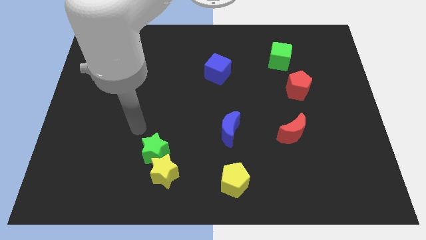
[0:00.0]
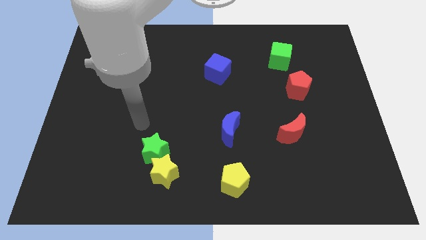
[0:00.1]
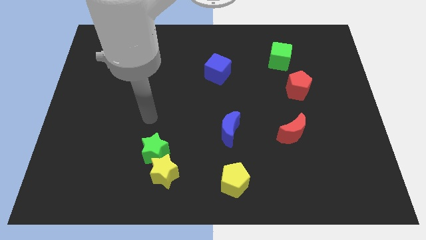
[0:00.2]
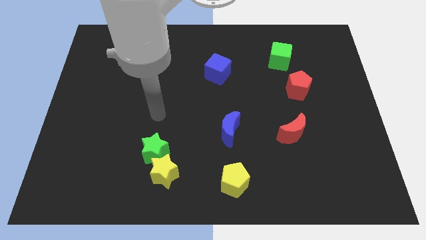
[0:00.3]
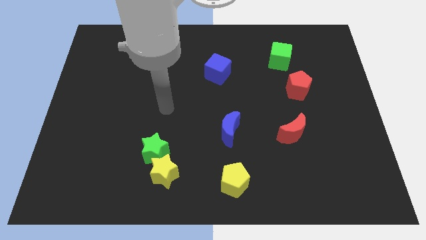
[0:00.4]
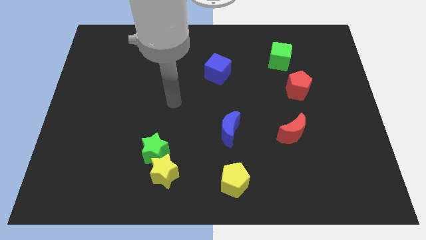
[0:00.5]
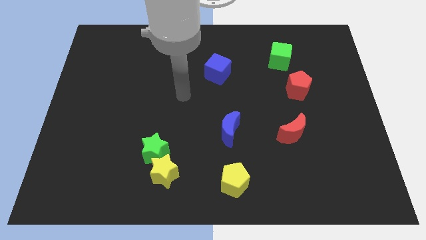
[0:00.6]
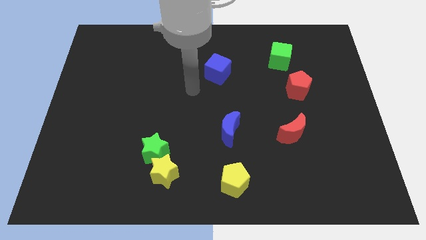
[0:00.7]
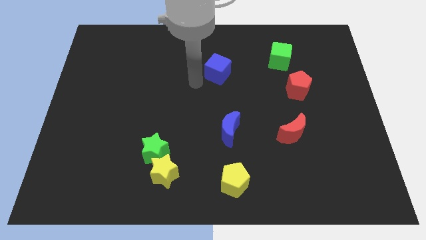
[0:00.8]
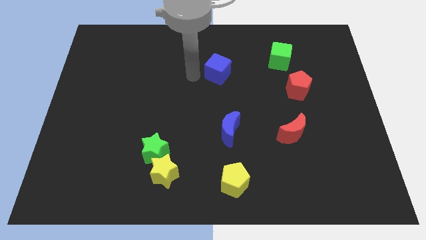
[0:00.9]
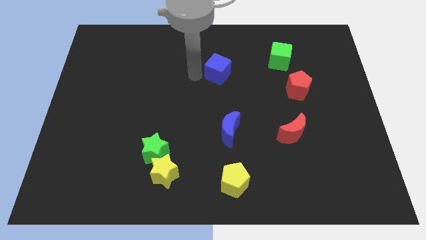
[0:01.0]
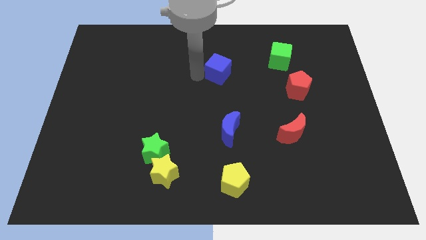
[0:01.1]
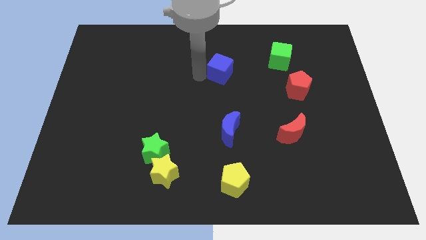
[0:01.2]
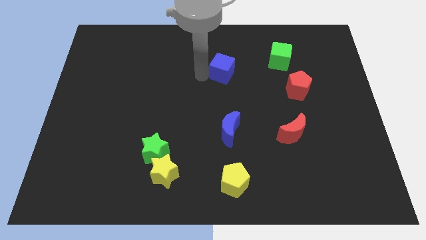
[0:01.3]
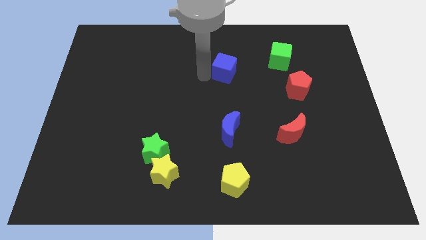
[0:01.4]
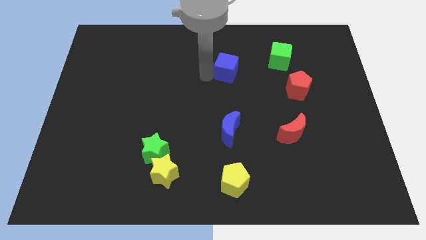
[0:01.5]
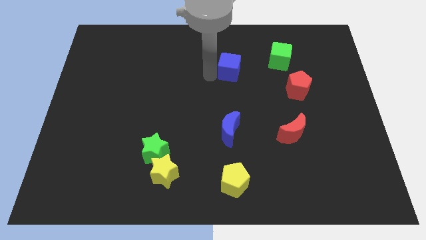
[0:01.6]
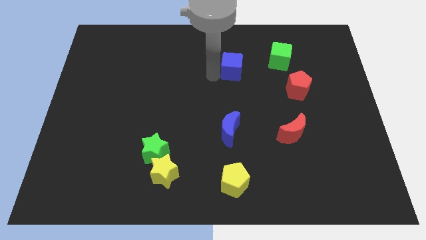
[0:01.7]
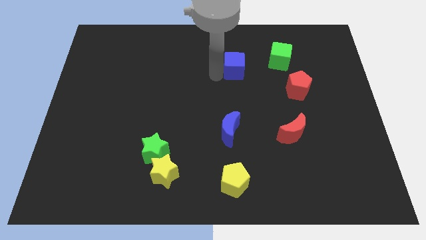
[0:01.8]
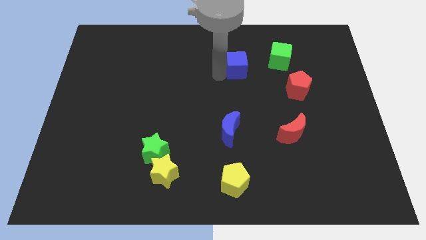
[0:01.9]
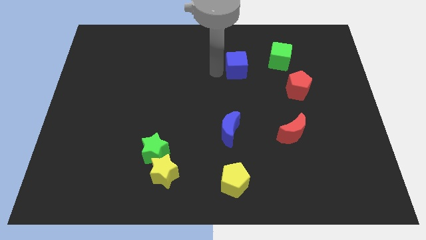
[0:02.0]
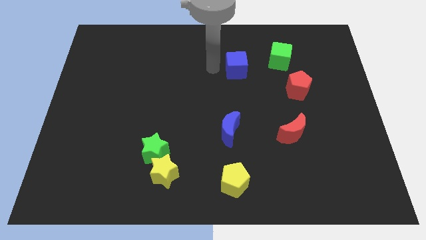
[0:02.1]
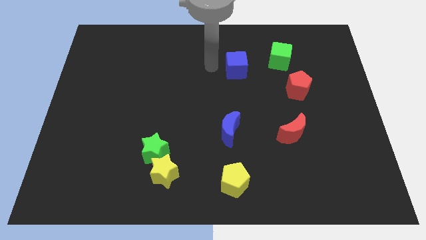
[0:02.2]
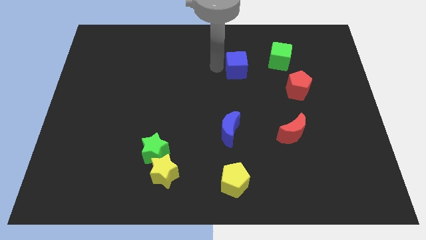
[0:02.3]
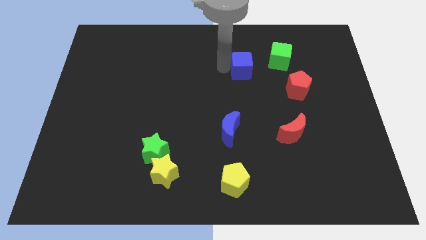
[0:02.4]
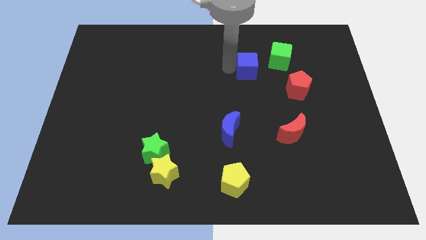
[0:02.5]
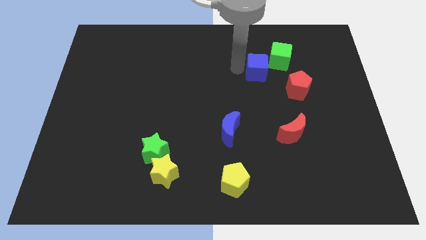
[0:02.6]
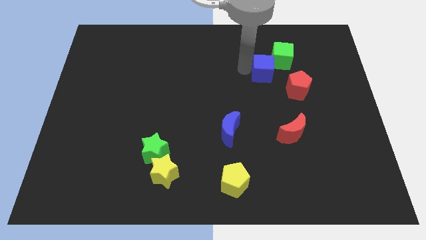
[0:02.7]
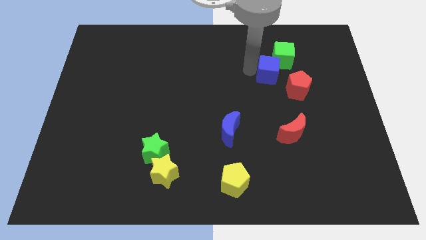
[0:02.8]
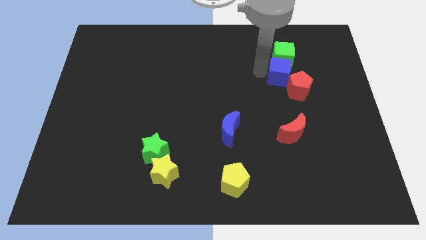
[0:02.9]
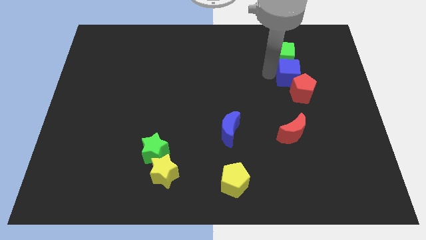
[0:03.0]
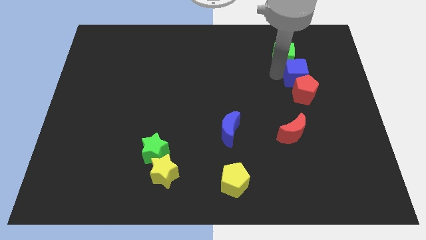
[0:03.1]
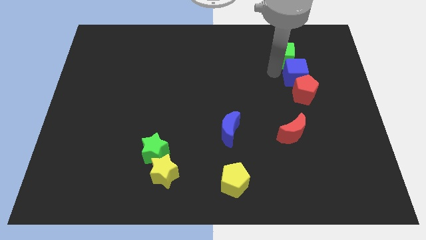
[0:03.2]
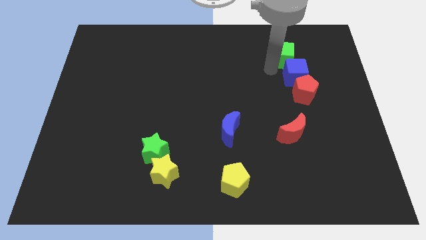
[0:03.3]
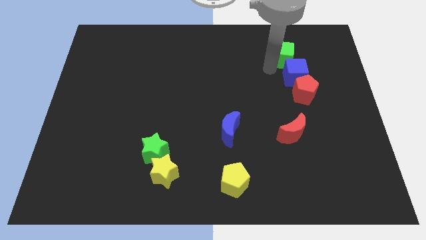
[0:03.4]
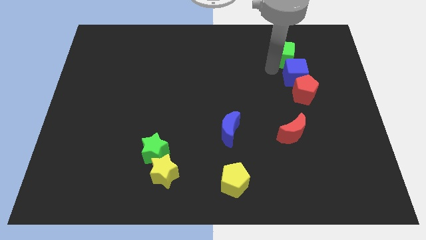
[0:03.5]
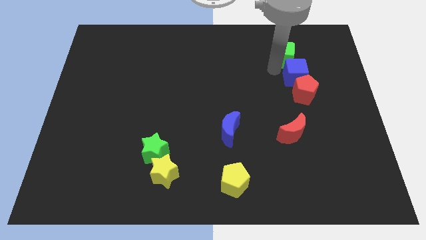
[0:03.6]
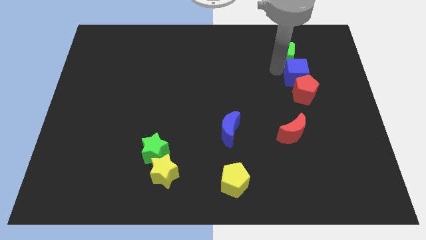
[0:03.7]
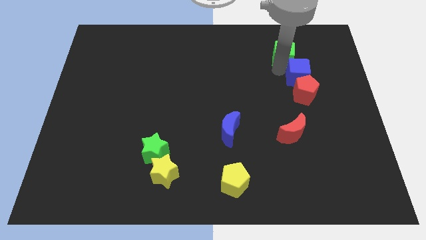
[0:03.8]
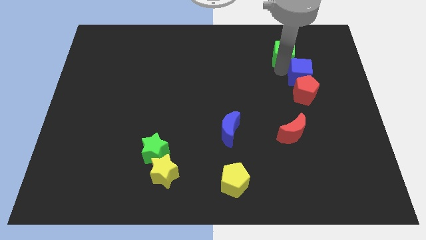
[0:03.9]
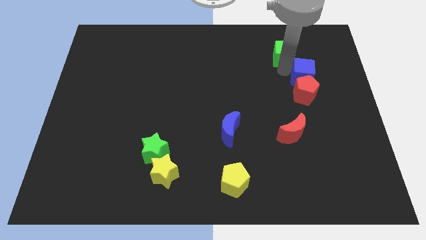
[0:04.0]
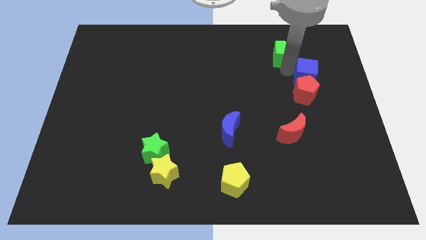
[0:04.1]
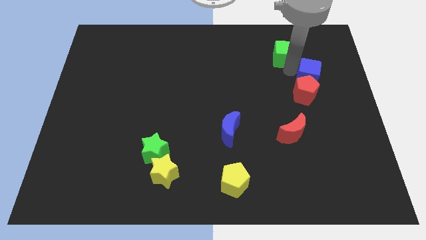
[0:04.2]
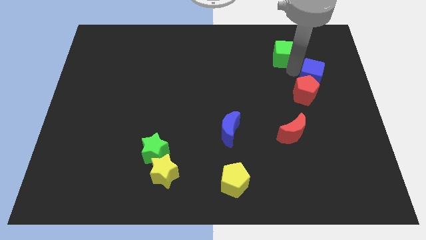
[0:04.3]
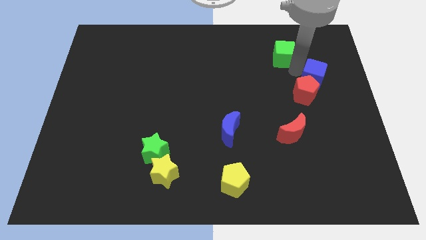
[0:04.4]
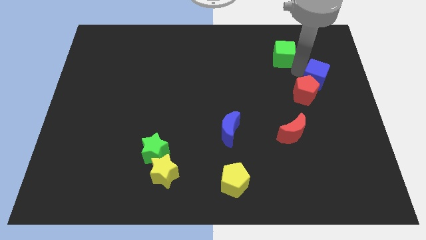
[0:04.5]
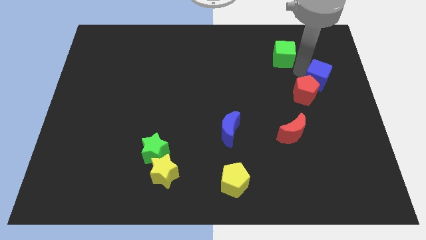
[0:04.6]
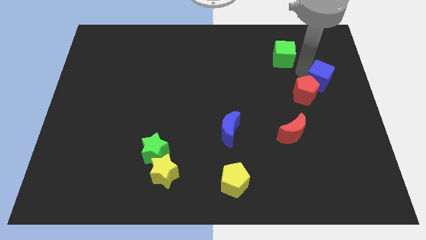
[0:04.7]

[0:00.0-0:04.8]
push the blue cube to the right side of the board

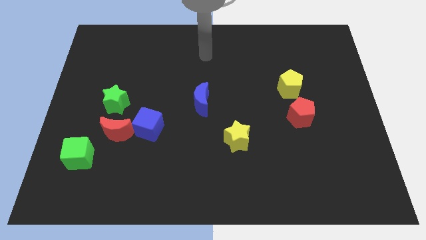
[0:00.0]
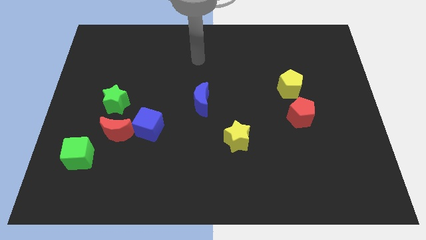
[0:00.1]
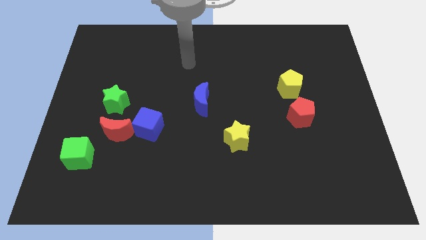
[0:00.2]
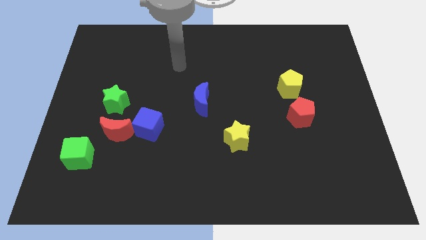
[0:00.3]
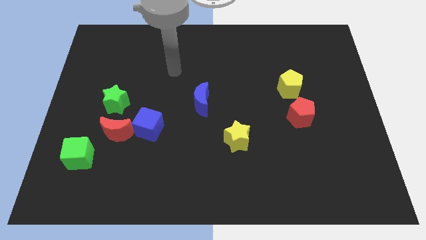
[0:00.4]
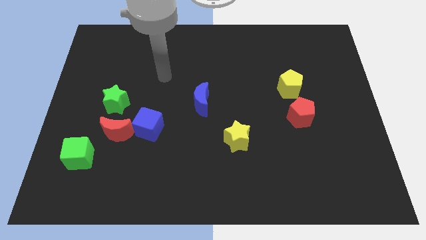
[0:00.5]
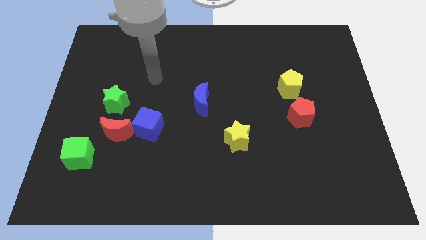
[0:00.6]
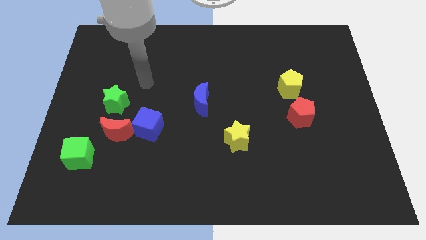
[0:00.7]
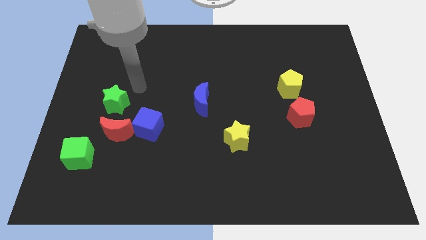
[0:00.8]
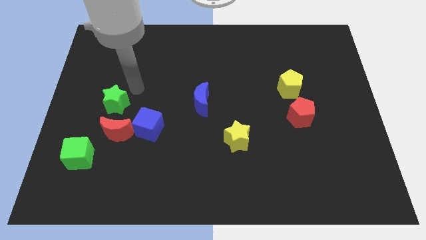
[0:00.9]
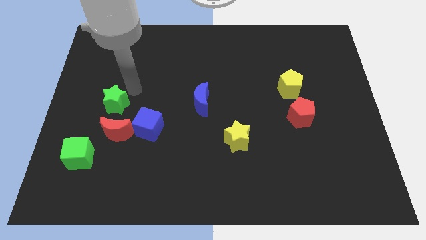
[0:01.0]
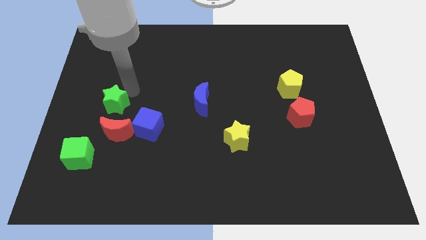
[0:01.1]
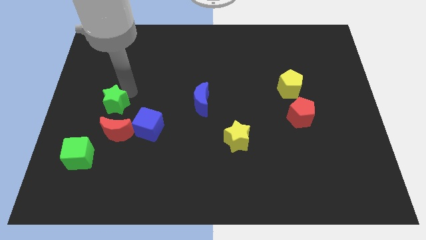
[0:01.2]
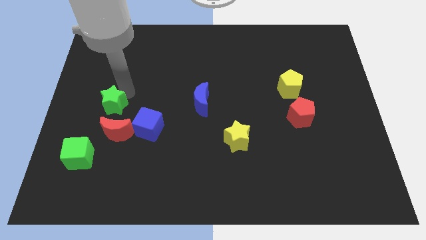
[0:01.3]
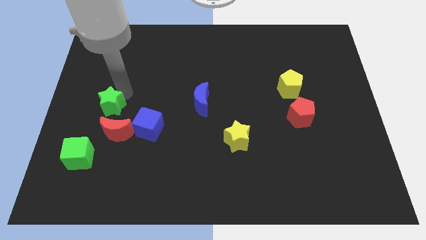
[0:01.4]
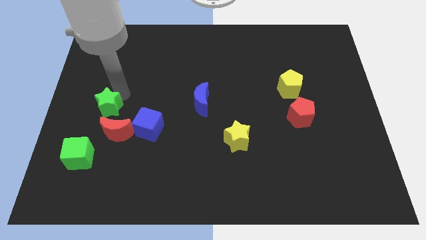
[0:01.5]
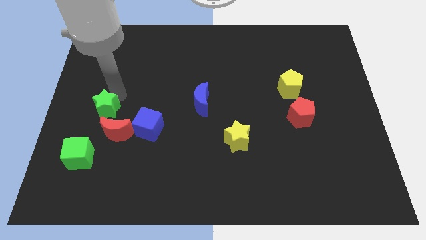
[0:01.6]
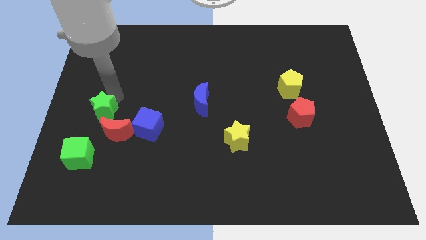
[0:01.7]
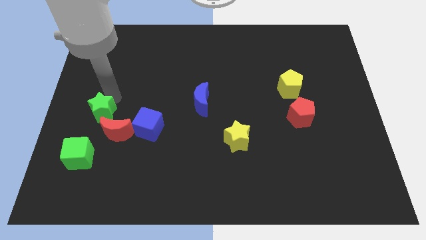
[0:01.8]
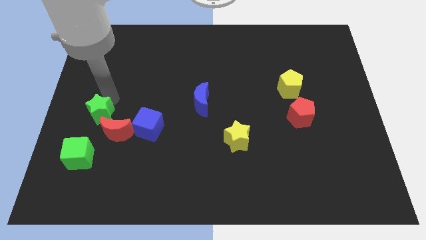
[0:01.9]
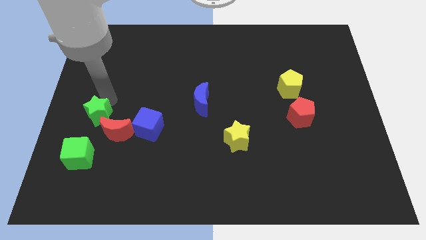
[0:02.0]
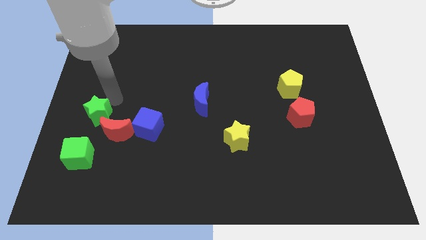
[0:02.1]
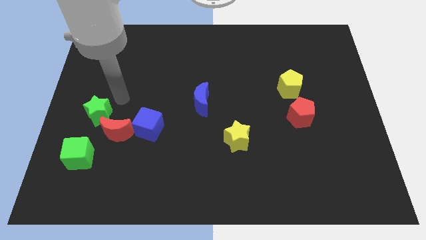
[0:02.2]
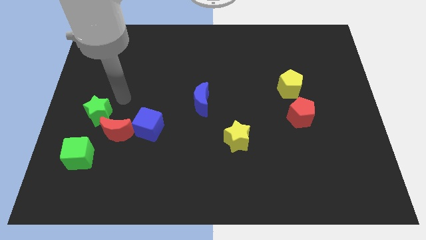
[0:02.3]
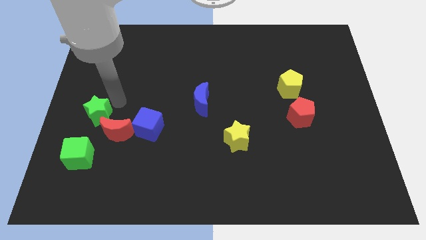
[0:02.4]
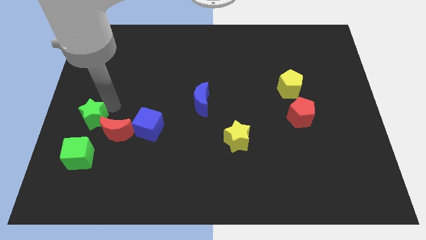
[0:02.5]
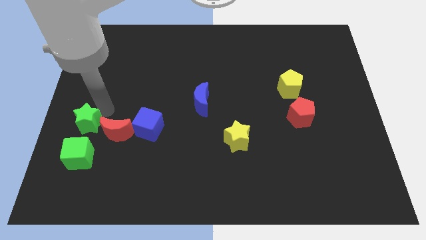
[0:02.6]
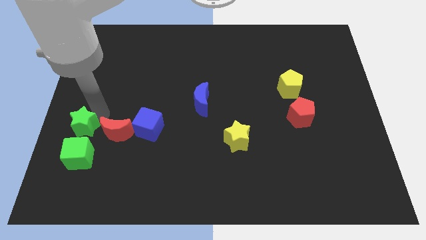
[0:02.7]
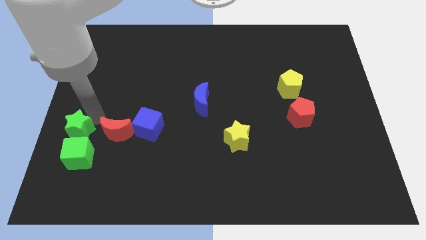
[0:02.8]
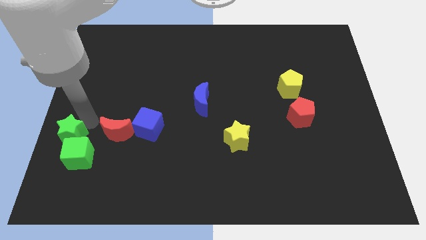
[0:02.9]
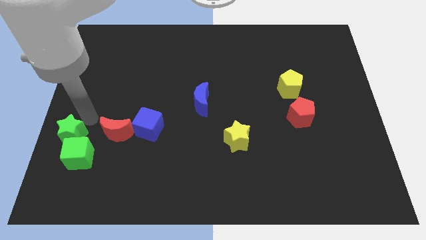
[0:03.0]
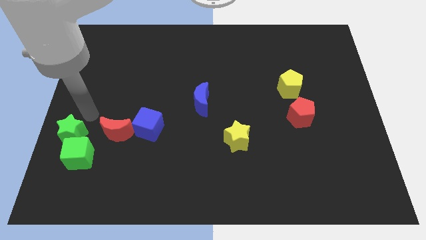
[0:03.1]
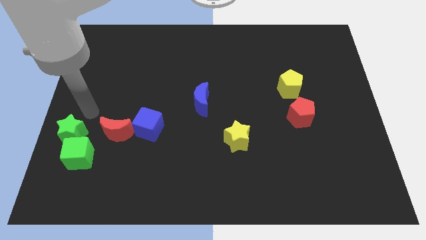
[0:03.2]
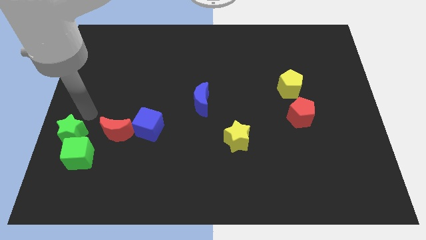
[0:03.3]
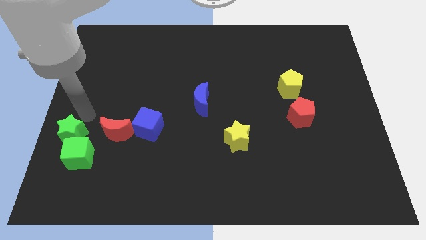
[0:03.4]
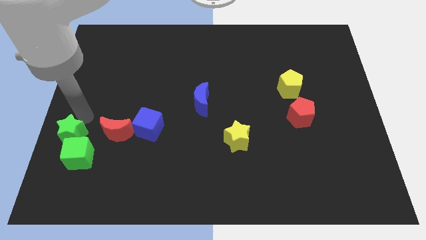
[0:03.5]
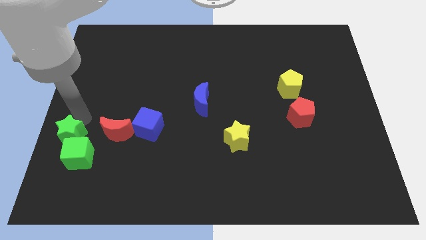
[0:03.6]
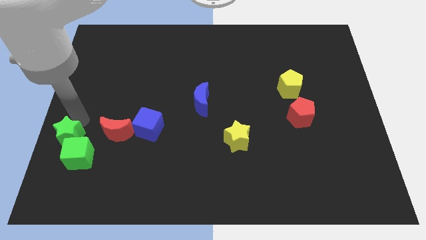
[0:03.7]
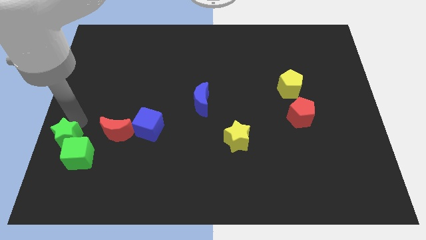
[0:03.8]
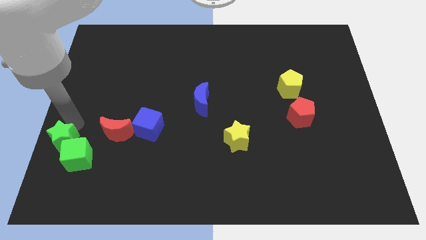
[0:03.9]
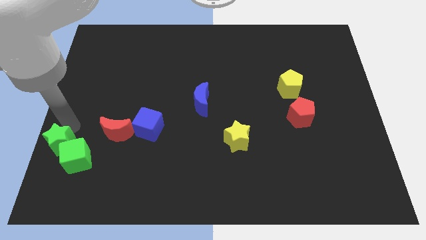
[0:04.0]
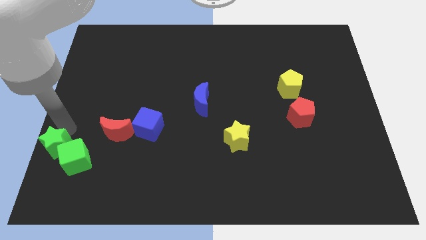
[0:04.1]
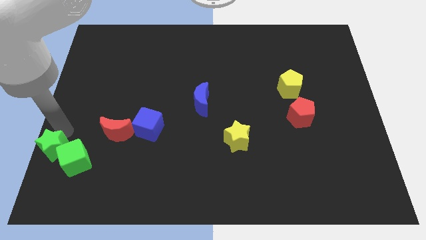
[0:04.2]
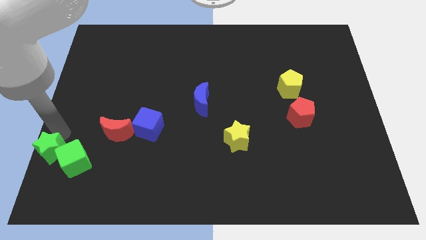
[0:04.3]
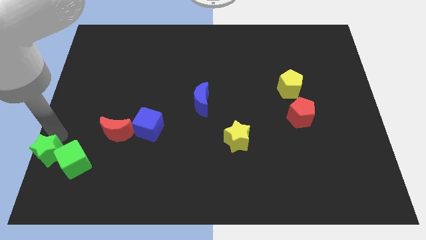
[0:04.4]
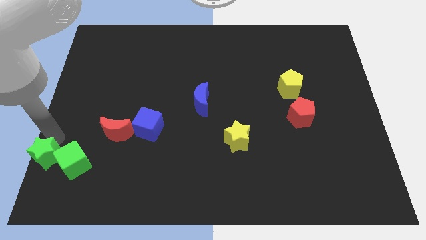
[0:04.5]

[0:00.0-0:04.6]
slide the green star to the bottom left of the board
